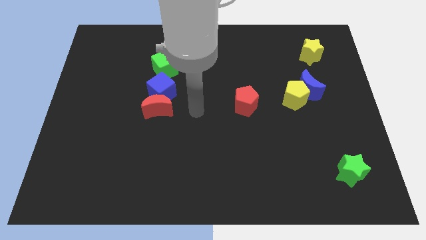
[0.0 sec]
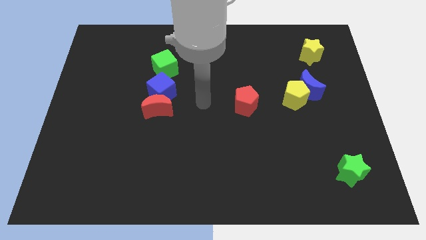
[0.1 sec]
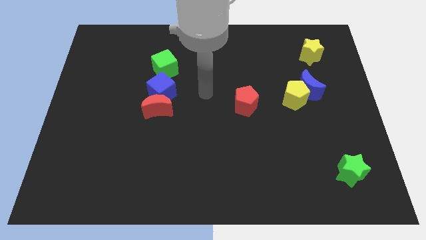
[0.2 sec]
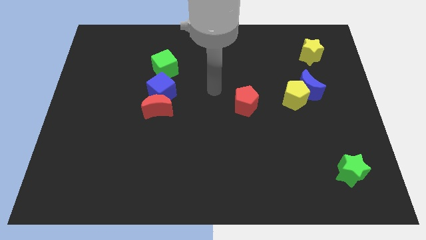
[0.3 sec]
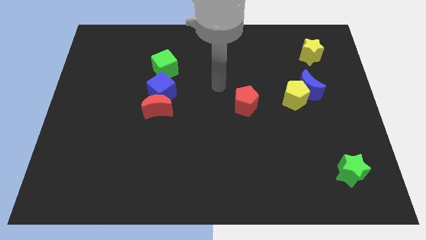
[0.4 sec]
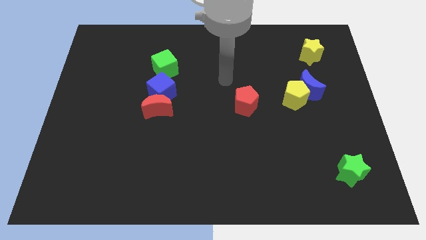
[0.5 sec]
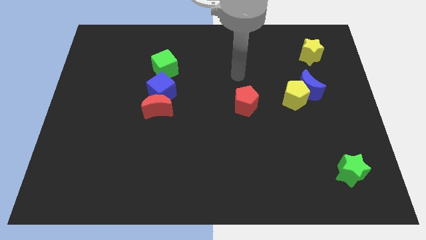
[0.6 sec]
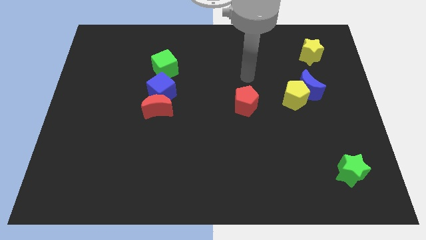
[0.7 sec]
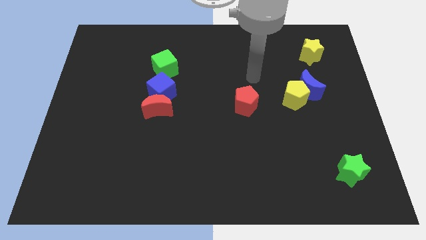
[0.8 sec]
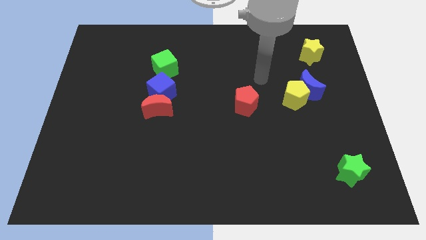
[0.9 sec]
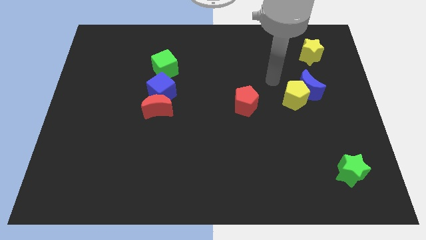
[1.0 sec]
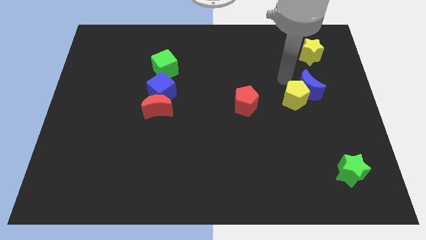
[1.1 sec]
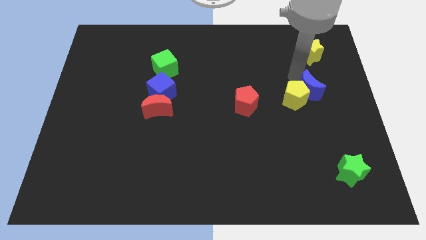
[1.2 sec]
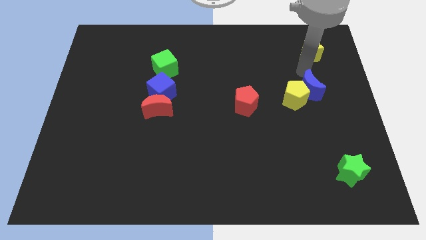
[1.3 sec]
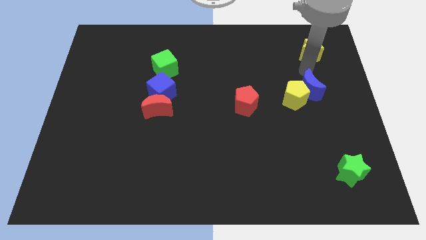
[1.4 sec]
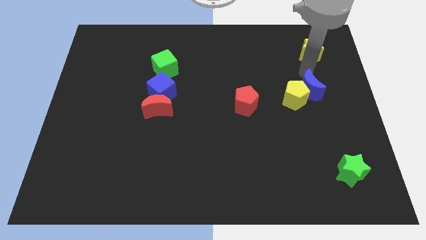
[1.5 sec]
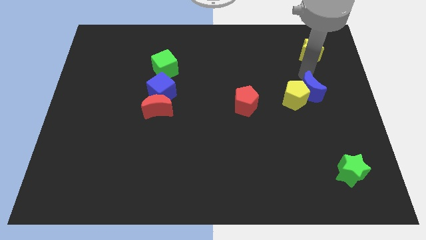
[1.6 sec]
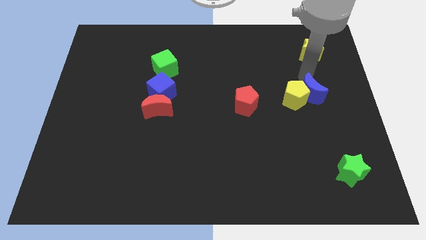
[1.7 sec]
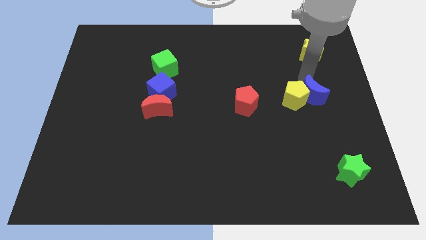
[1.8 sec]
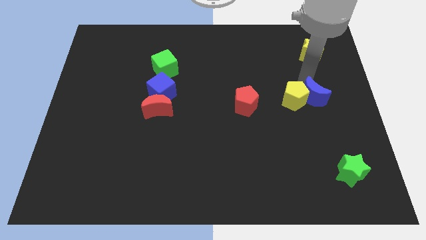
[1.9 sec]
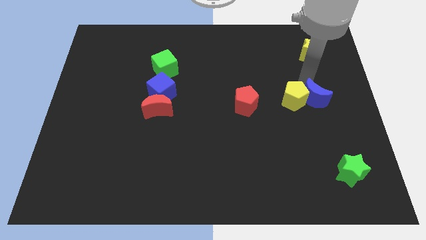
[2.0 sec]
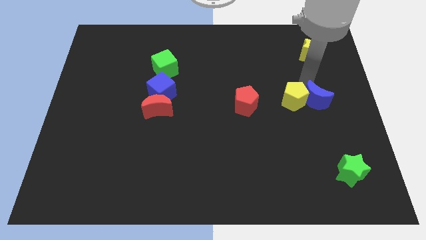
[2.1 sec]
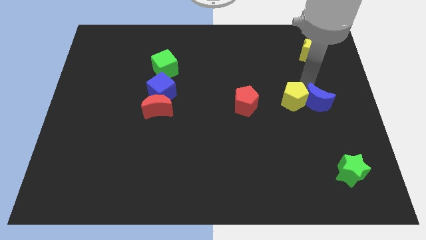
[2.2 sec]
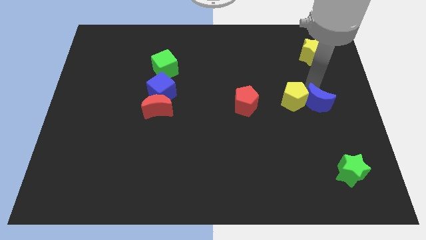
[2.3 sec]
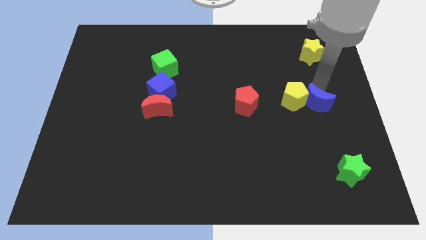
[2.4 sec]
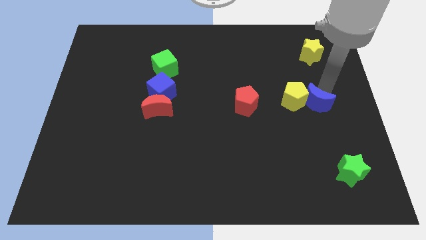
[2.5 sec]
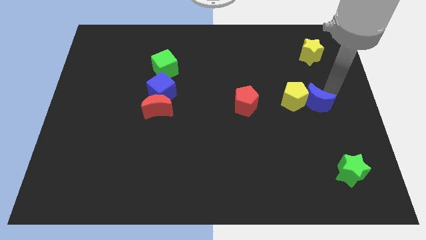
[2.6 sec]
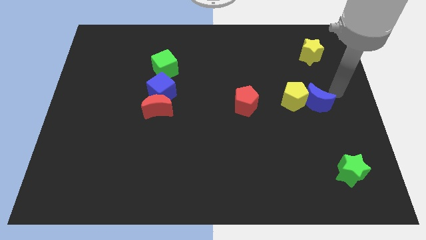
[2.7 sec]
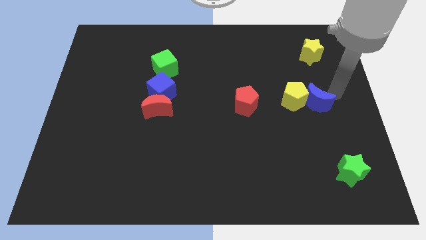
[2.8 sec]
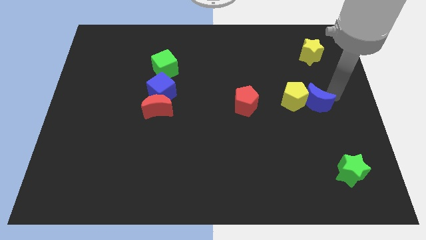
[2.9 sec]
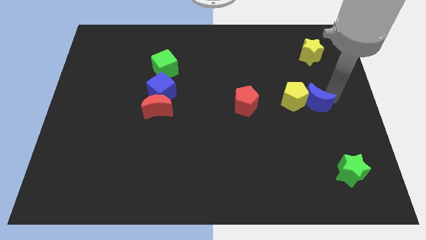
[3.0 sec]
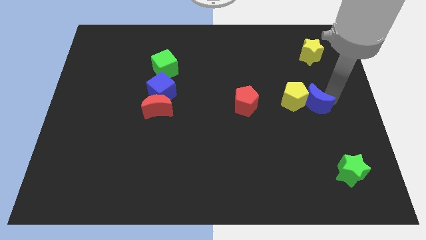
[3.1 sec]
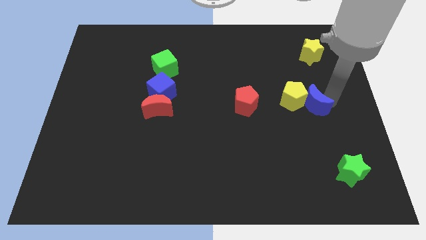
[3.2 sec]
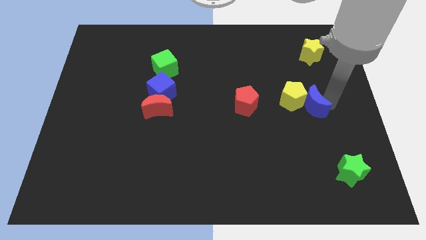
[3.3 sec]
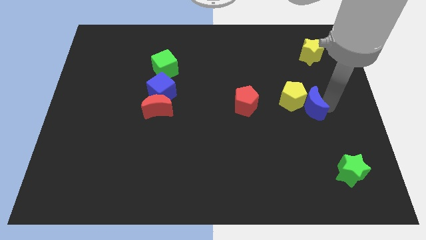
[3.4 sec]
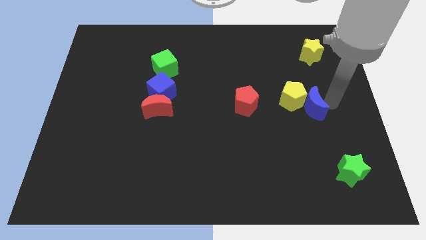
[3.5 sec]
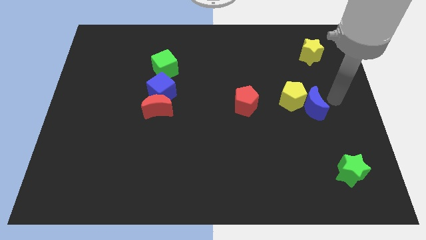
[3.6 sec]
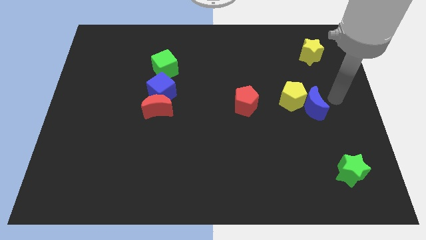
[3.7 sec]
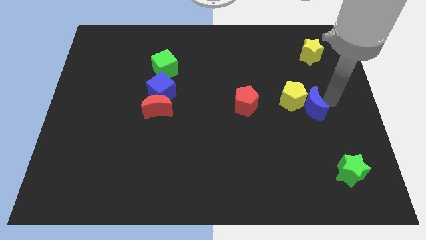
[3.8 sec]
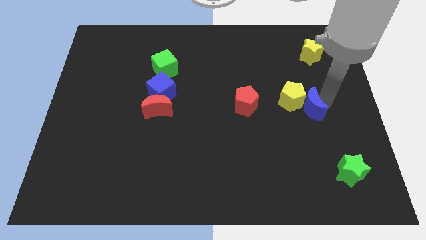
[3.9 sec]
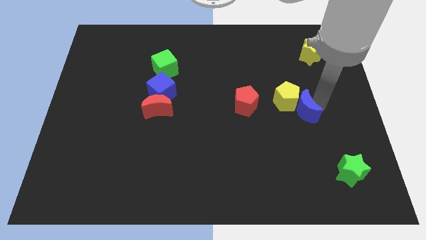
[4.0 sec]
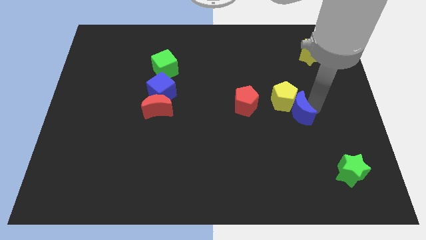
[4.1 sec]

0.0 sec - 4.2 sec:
slightly move the blue moon downwards and left diagonally

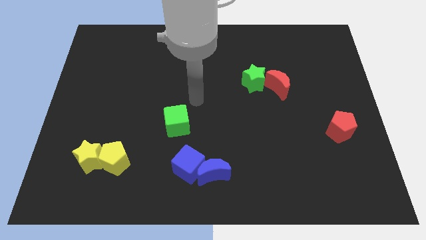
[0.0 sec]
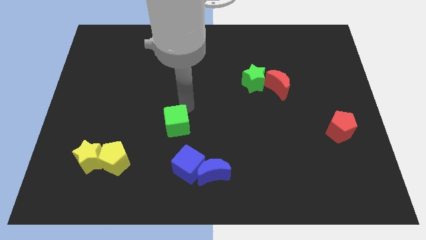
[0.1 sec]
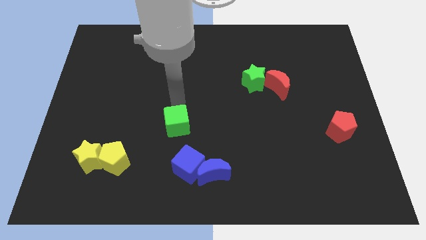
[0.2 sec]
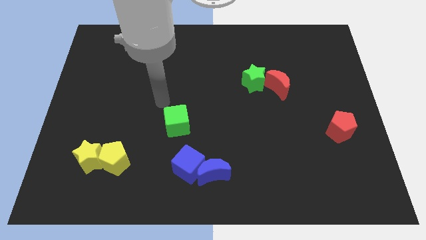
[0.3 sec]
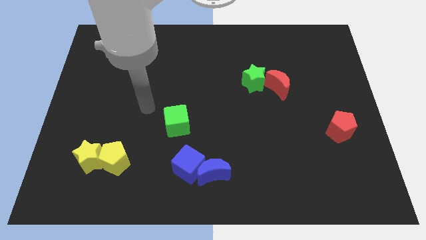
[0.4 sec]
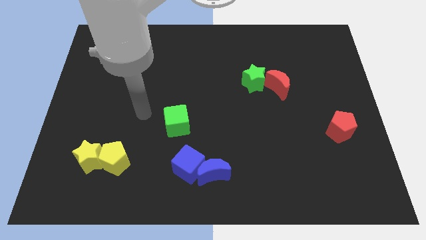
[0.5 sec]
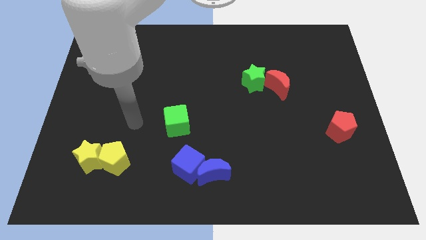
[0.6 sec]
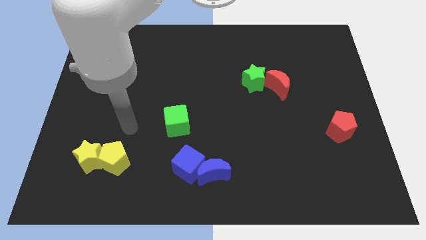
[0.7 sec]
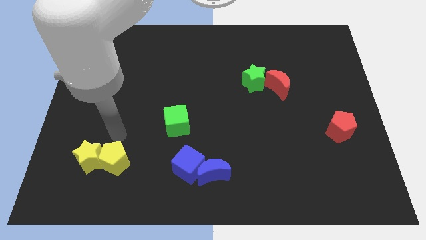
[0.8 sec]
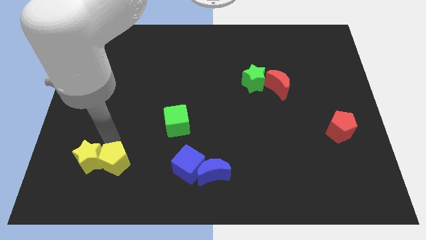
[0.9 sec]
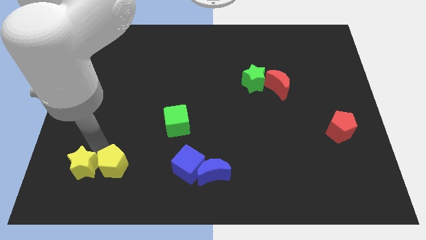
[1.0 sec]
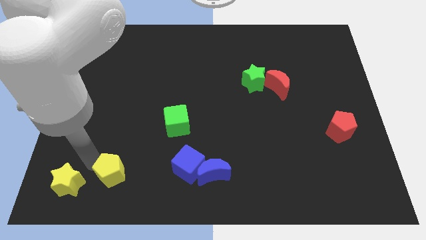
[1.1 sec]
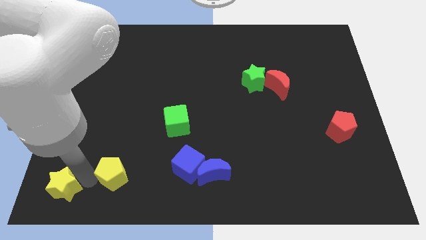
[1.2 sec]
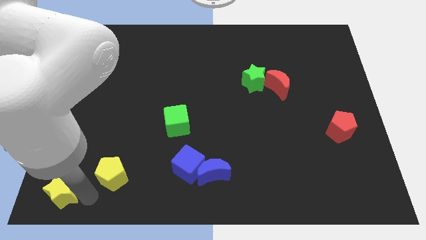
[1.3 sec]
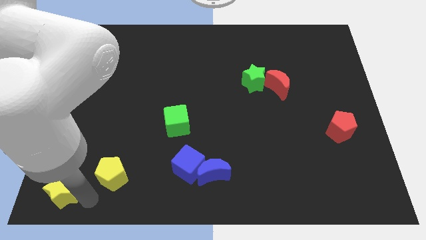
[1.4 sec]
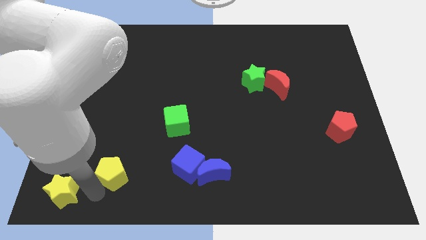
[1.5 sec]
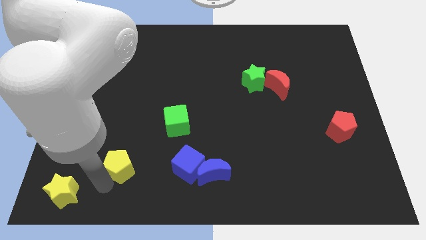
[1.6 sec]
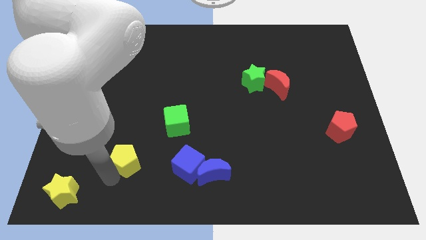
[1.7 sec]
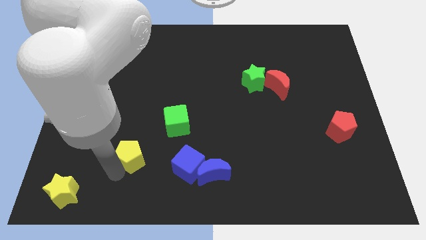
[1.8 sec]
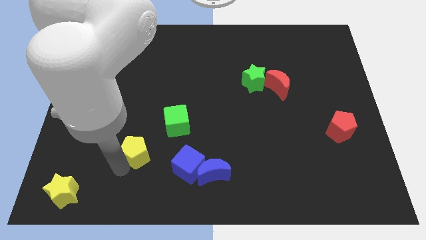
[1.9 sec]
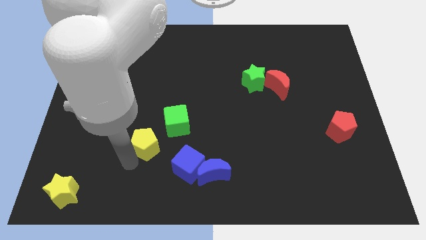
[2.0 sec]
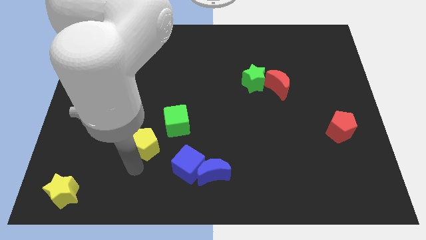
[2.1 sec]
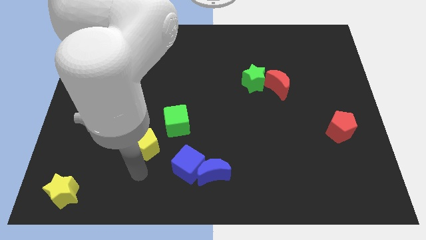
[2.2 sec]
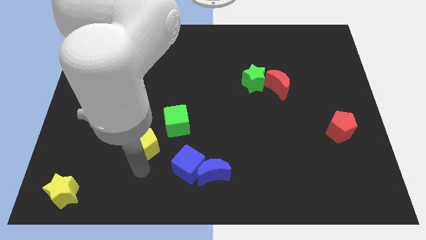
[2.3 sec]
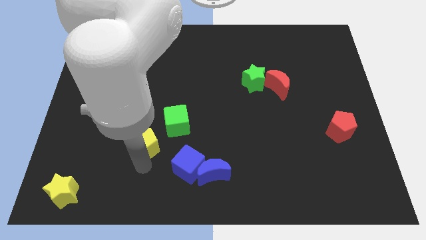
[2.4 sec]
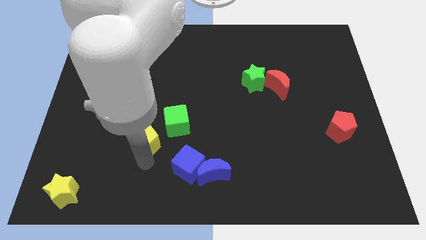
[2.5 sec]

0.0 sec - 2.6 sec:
slightly slide the yellow pentagon upwards and then right

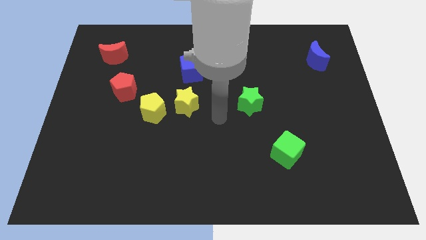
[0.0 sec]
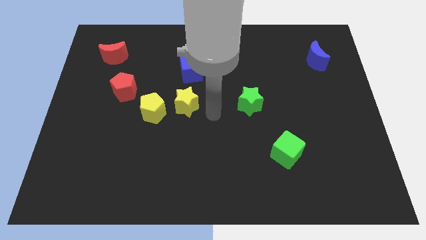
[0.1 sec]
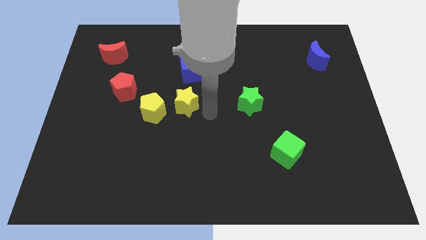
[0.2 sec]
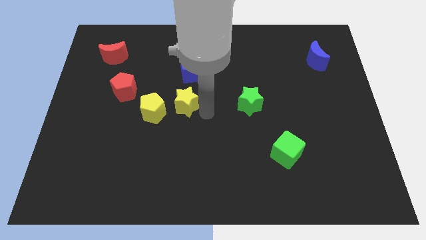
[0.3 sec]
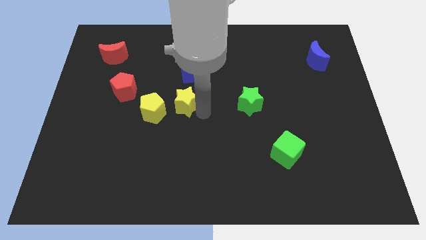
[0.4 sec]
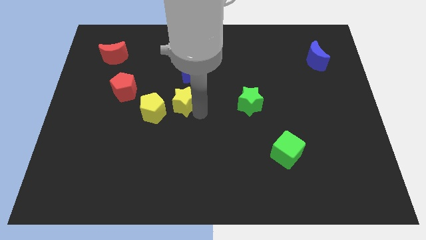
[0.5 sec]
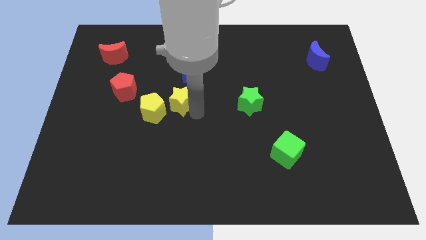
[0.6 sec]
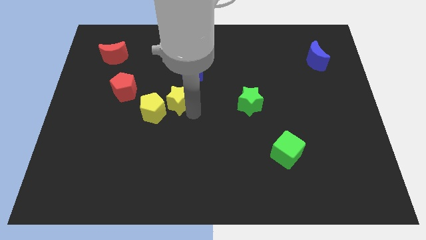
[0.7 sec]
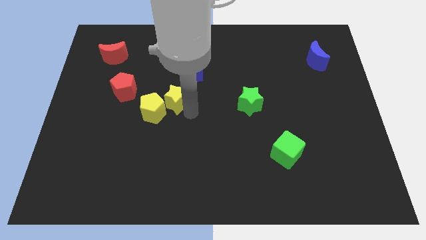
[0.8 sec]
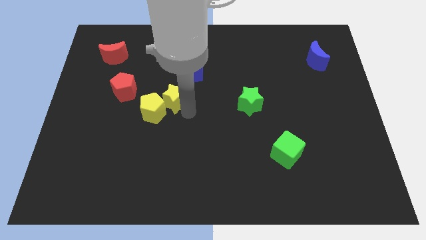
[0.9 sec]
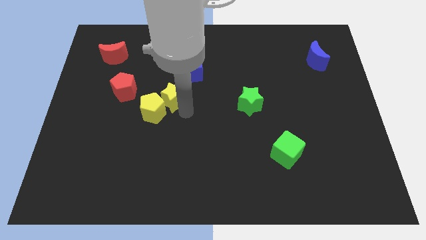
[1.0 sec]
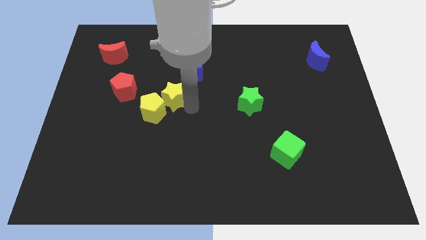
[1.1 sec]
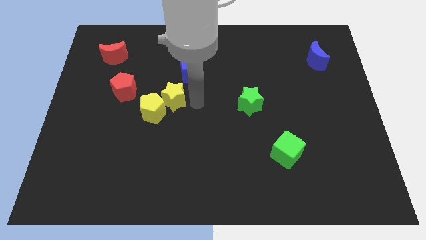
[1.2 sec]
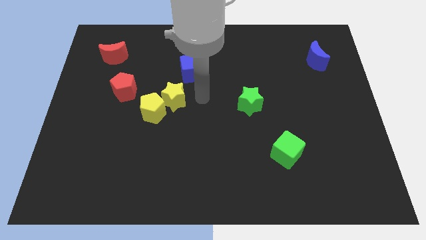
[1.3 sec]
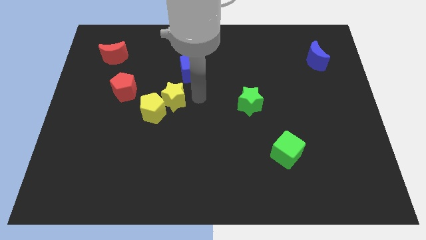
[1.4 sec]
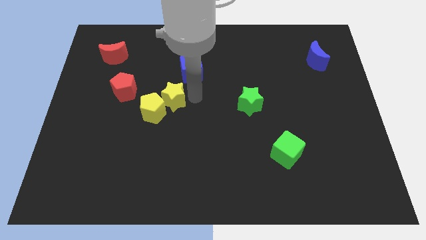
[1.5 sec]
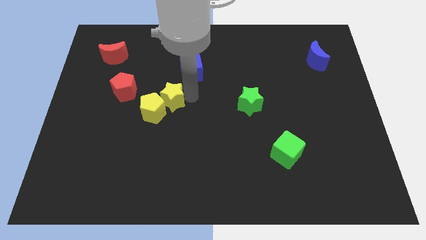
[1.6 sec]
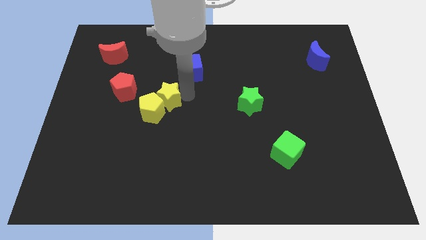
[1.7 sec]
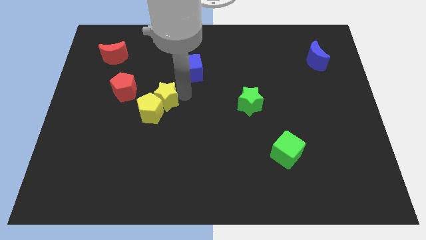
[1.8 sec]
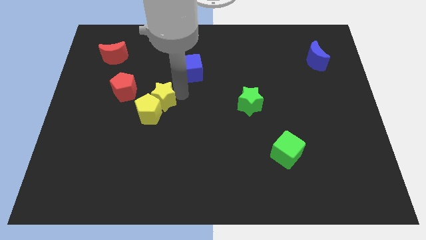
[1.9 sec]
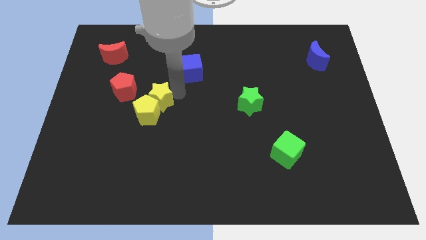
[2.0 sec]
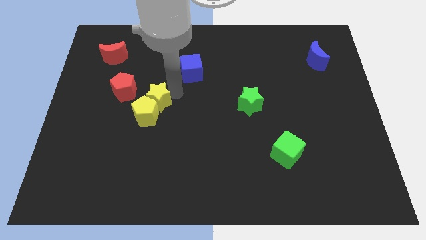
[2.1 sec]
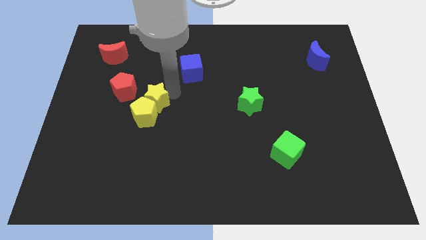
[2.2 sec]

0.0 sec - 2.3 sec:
push the yellow star to the left a little bit
